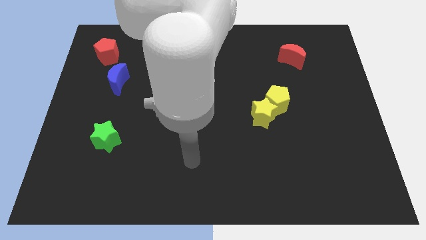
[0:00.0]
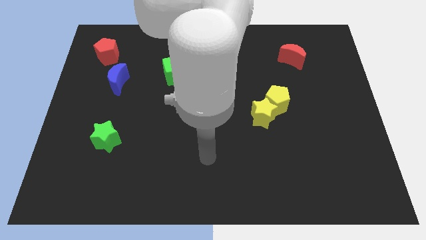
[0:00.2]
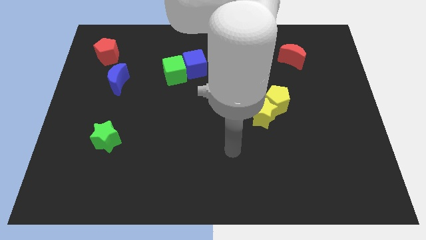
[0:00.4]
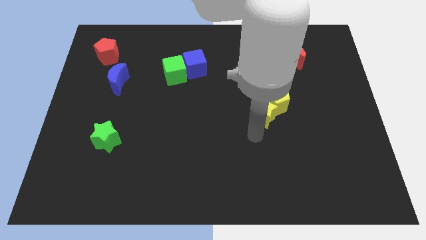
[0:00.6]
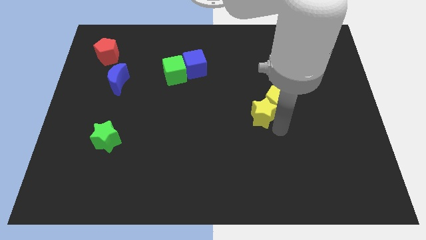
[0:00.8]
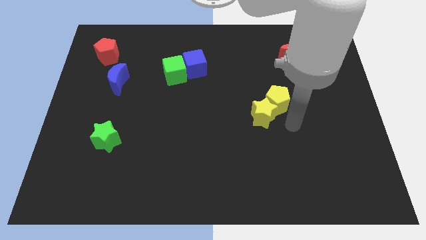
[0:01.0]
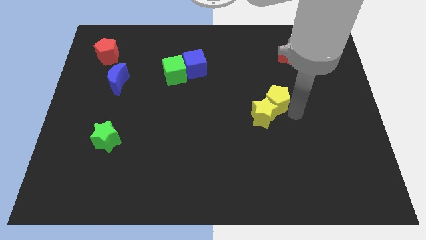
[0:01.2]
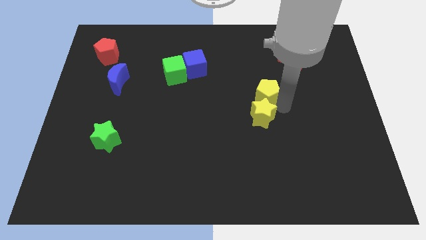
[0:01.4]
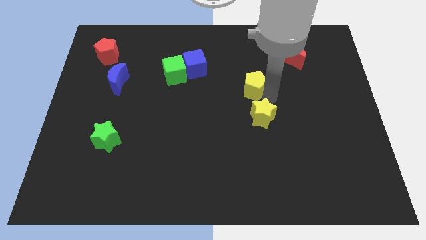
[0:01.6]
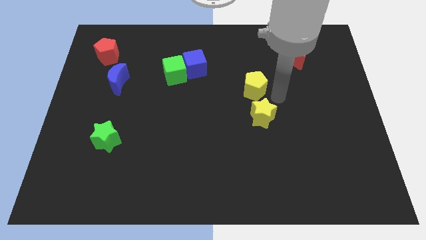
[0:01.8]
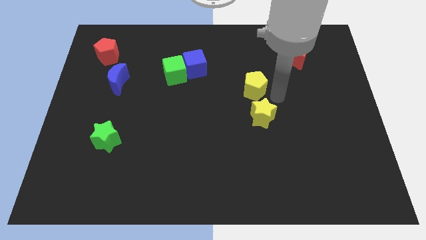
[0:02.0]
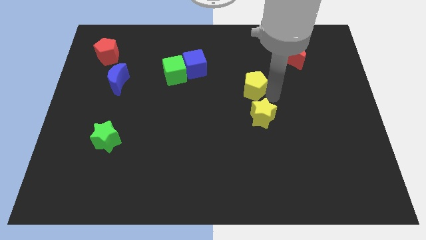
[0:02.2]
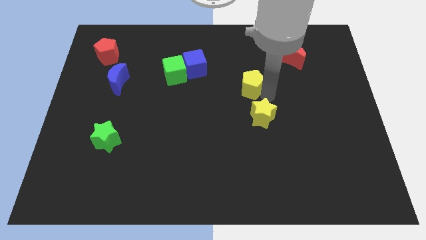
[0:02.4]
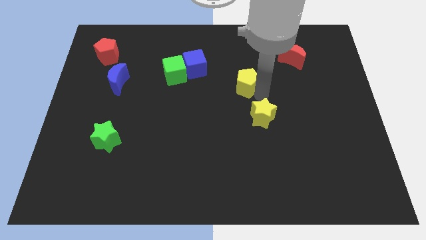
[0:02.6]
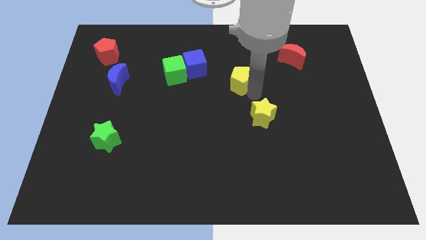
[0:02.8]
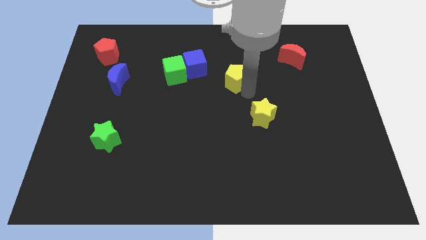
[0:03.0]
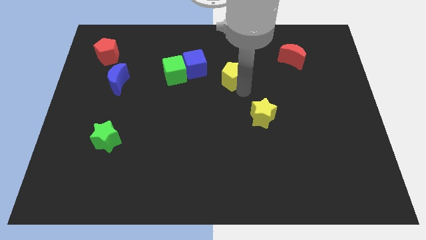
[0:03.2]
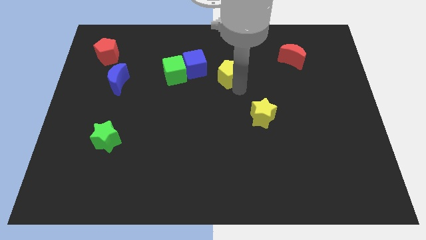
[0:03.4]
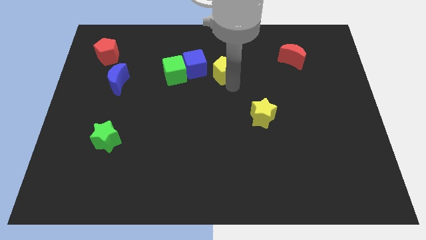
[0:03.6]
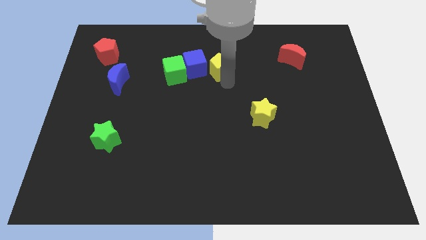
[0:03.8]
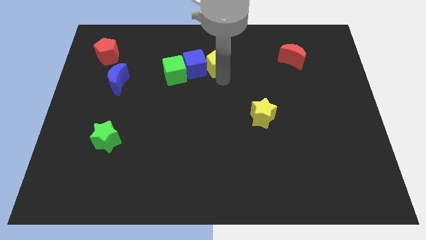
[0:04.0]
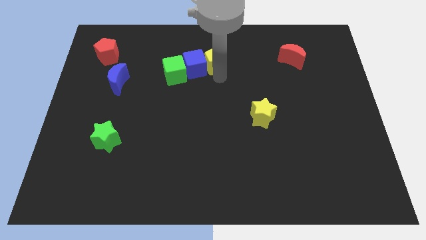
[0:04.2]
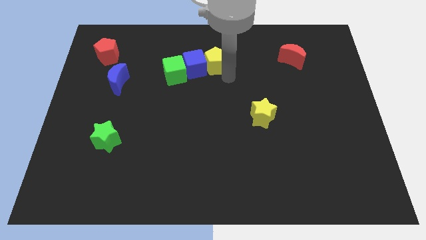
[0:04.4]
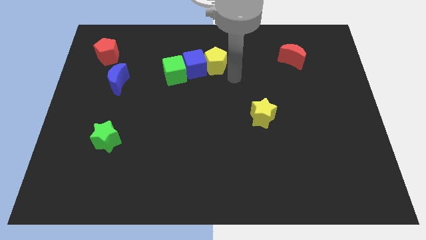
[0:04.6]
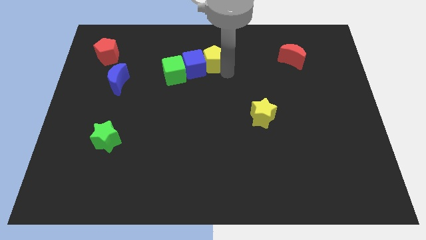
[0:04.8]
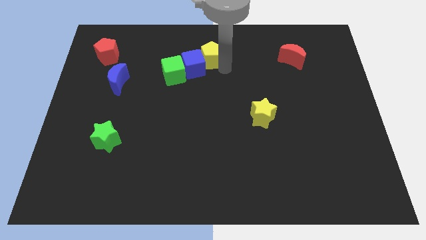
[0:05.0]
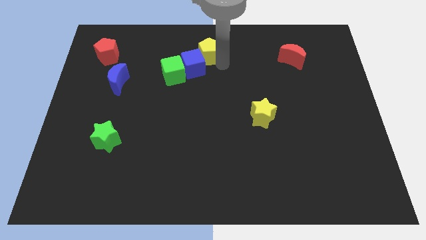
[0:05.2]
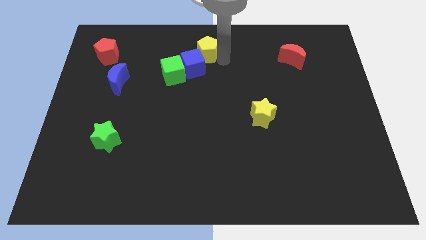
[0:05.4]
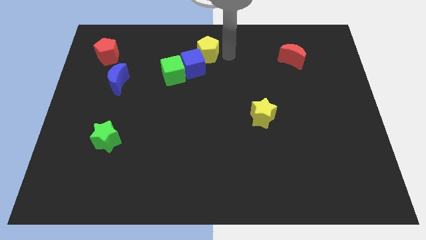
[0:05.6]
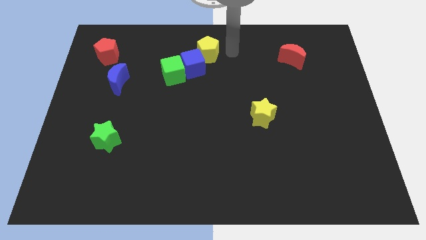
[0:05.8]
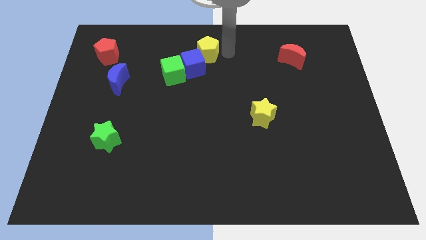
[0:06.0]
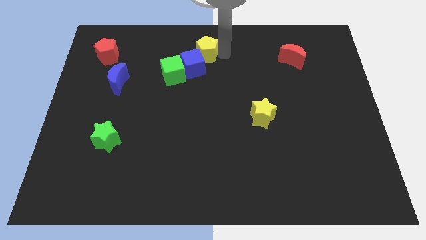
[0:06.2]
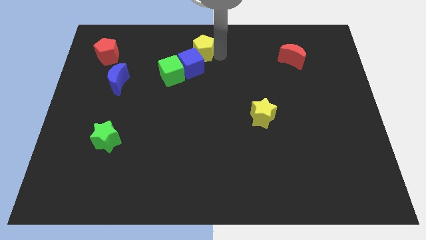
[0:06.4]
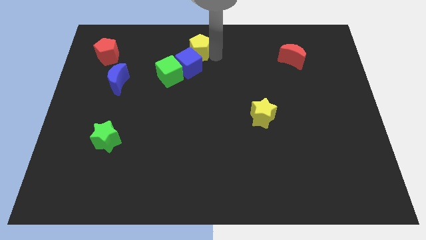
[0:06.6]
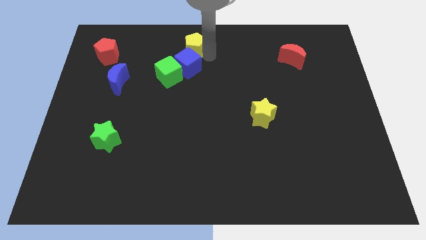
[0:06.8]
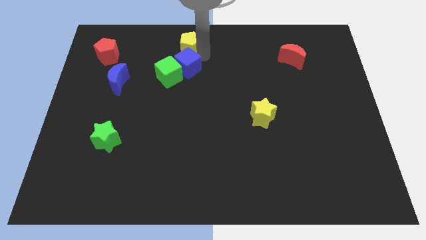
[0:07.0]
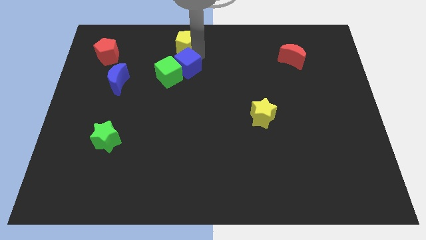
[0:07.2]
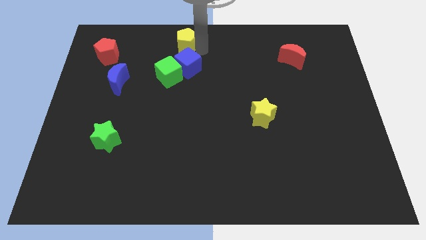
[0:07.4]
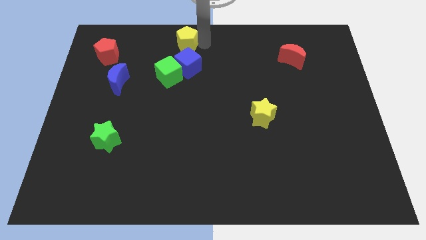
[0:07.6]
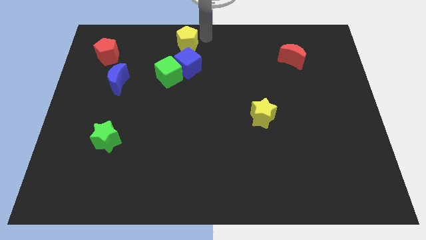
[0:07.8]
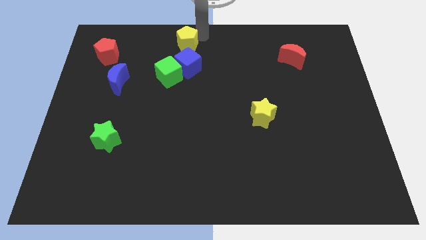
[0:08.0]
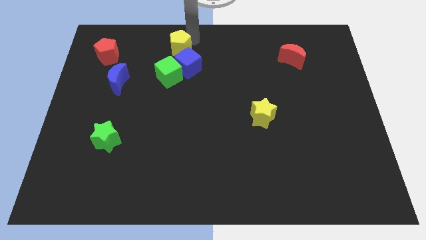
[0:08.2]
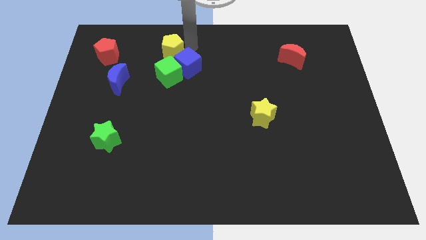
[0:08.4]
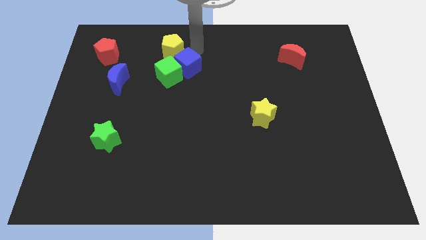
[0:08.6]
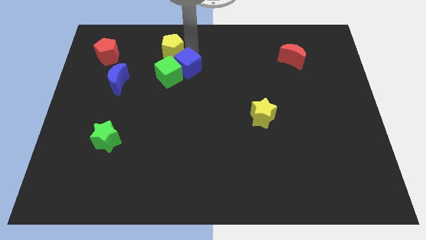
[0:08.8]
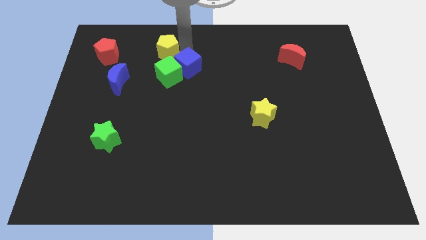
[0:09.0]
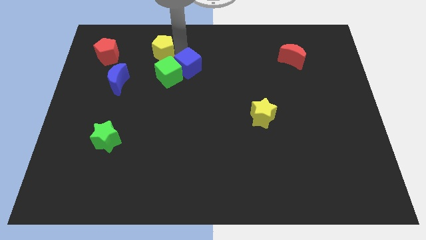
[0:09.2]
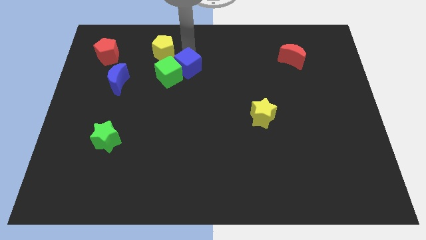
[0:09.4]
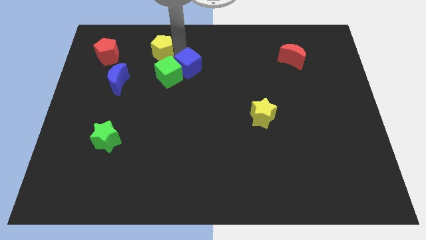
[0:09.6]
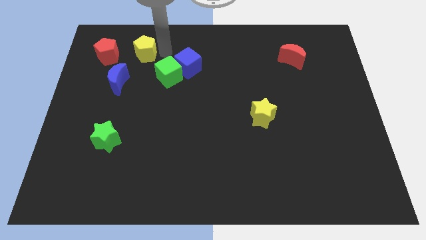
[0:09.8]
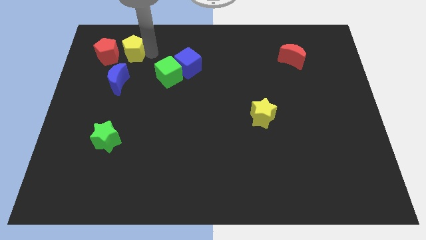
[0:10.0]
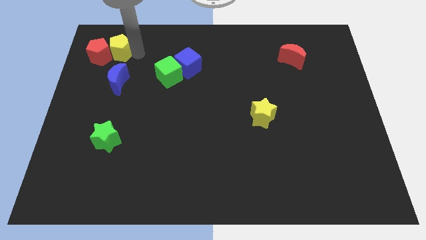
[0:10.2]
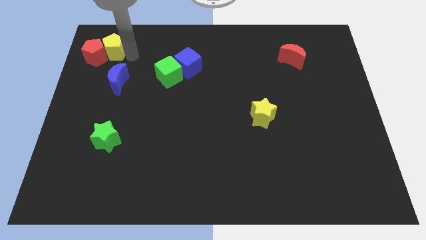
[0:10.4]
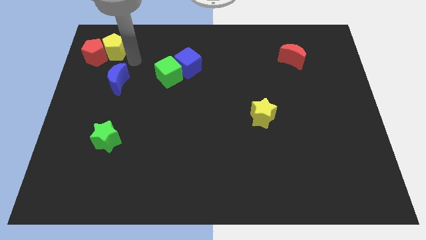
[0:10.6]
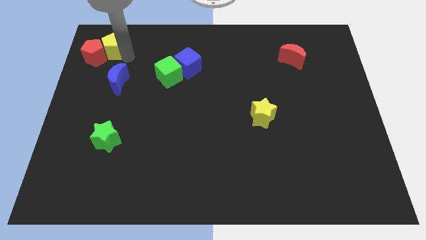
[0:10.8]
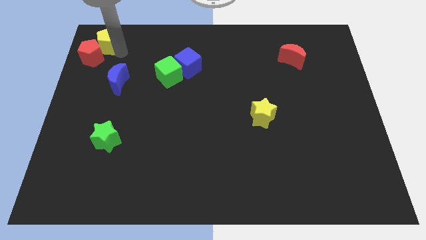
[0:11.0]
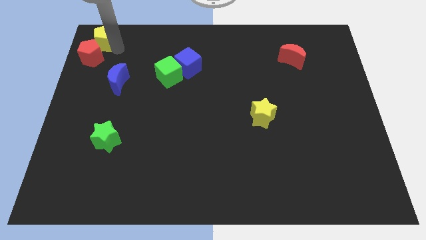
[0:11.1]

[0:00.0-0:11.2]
slide the yellow pentagon to the upper left corner

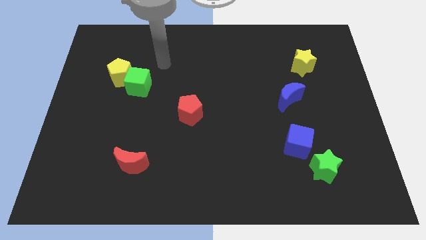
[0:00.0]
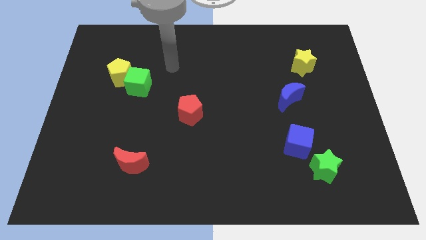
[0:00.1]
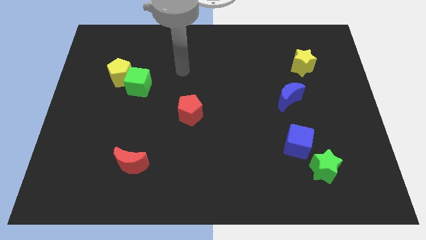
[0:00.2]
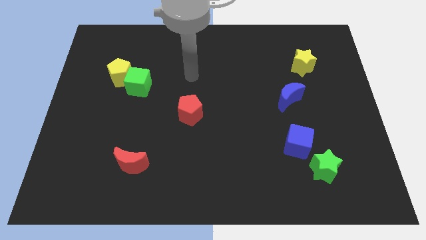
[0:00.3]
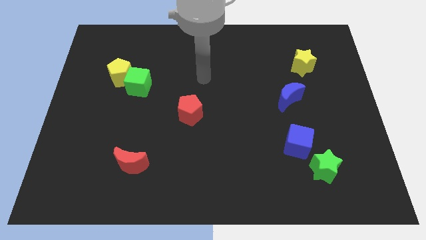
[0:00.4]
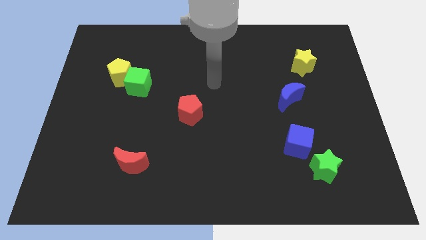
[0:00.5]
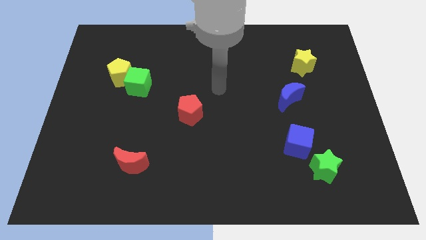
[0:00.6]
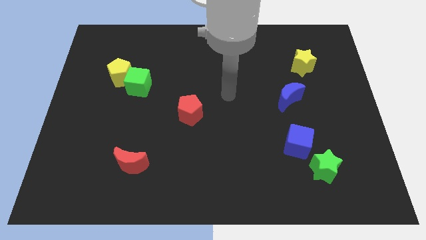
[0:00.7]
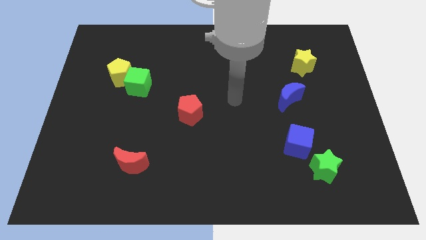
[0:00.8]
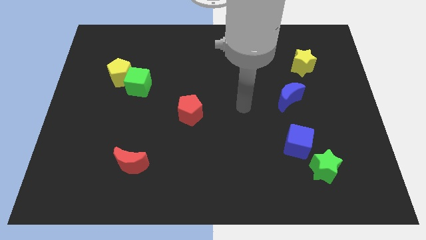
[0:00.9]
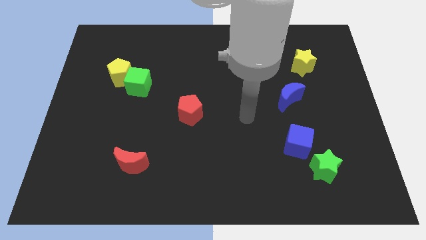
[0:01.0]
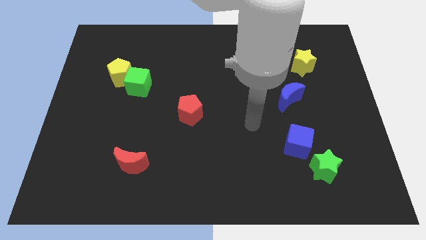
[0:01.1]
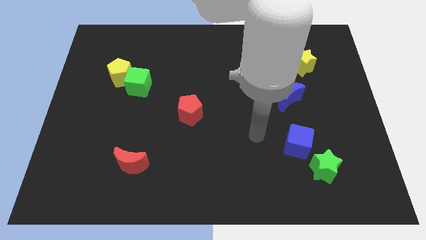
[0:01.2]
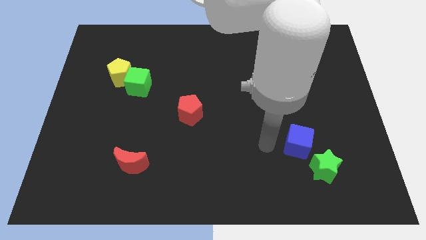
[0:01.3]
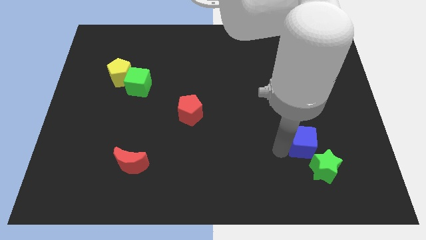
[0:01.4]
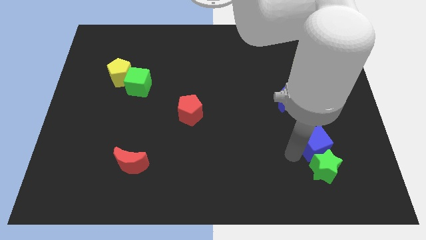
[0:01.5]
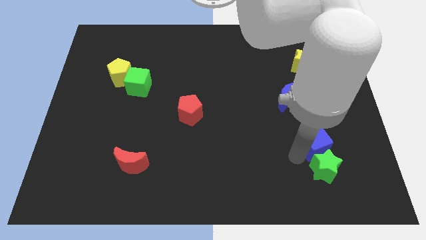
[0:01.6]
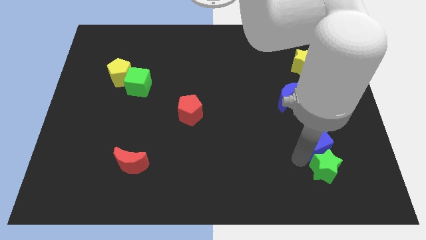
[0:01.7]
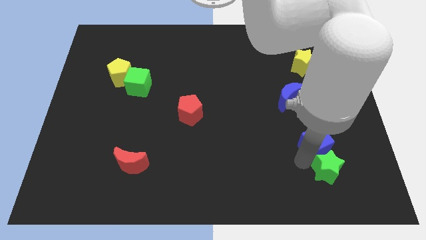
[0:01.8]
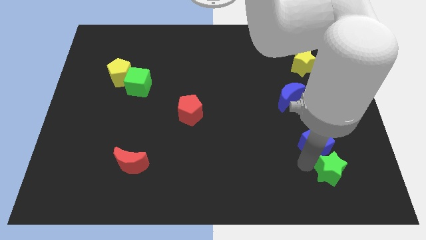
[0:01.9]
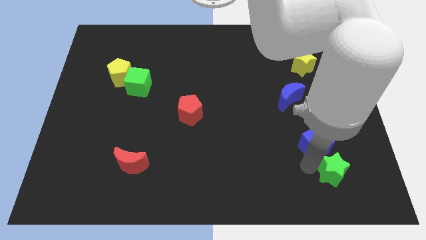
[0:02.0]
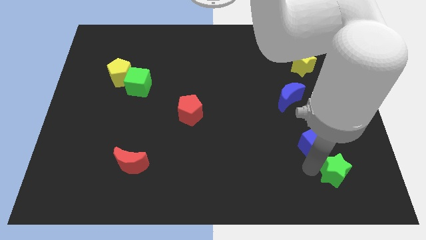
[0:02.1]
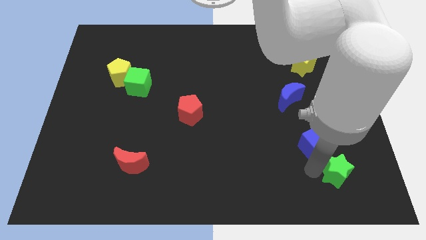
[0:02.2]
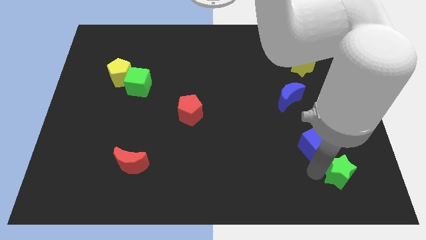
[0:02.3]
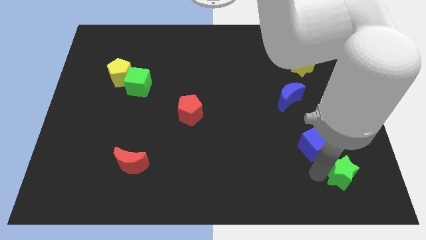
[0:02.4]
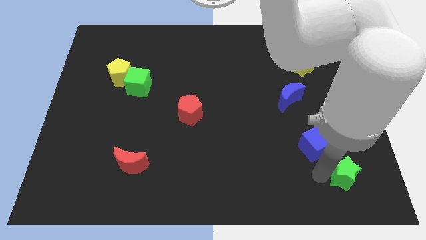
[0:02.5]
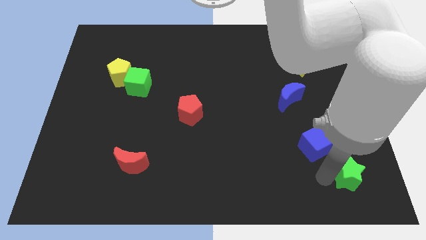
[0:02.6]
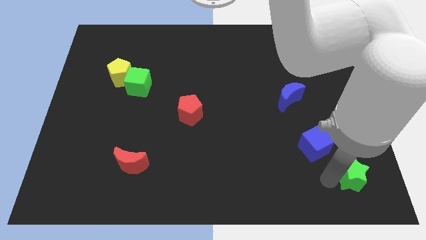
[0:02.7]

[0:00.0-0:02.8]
push the green star to the bottom right
